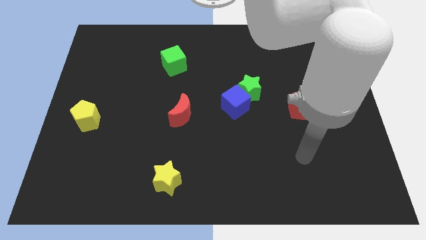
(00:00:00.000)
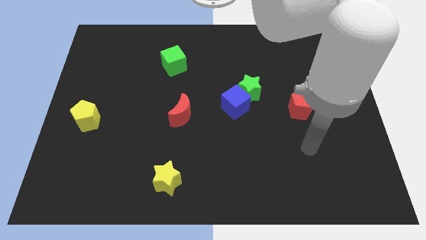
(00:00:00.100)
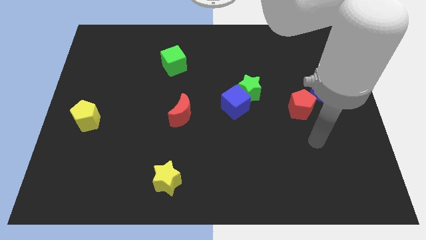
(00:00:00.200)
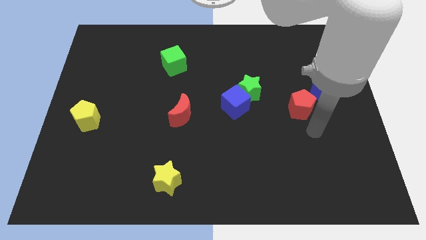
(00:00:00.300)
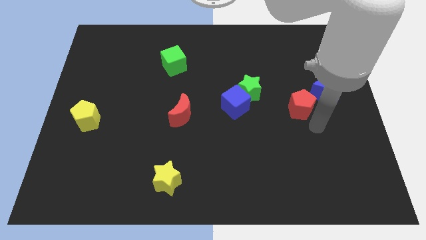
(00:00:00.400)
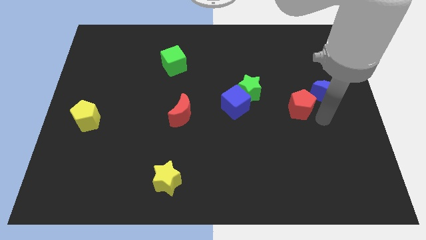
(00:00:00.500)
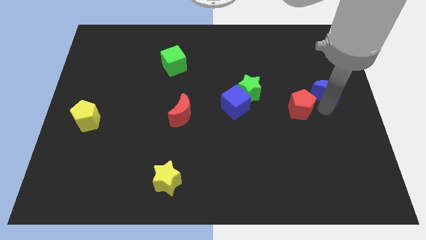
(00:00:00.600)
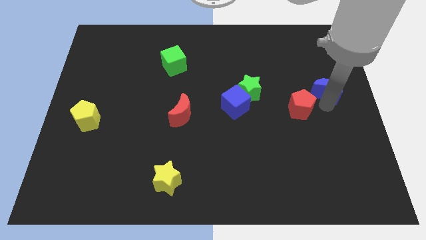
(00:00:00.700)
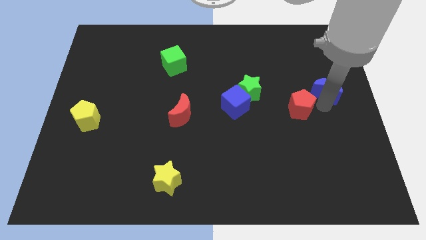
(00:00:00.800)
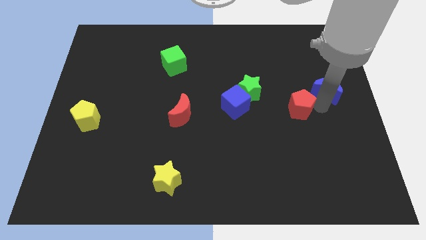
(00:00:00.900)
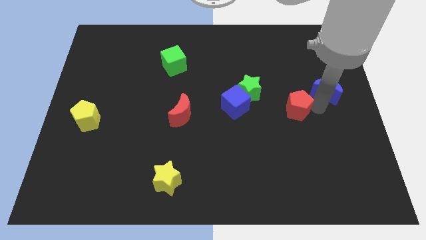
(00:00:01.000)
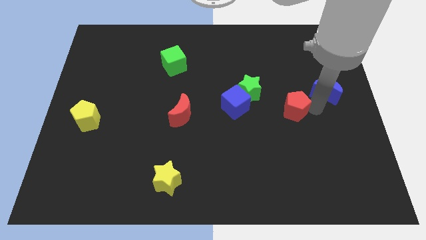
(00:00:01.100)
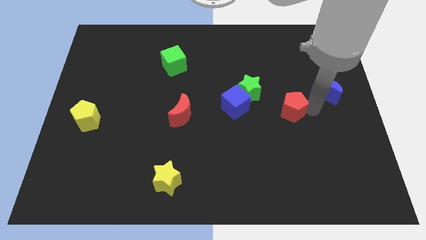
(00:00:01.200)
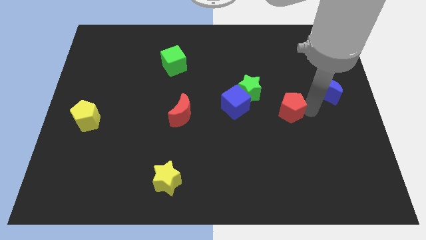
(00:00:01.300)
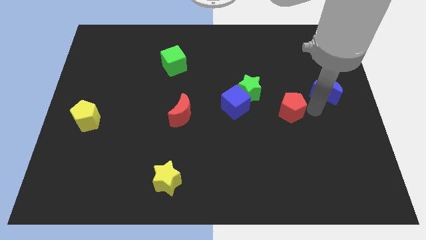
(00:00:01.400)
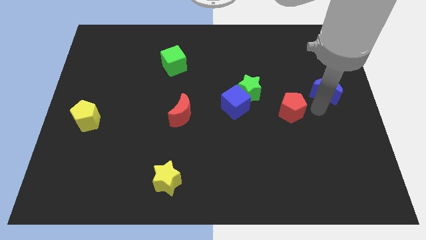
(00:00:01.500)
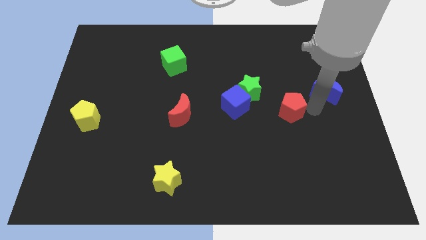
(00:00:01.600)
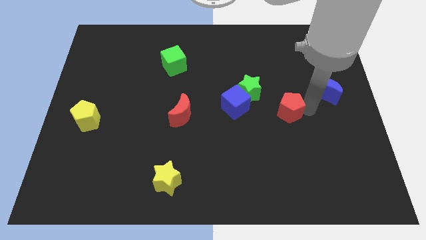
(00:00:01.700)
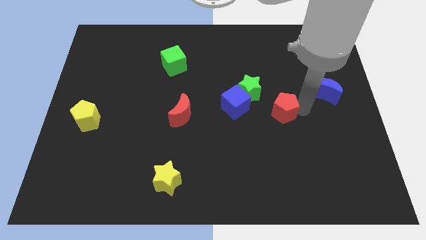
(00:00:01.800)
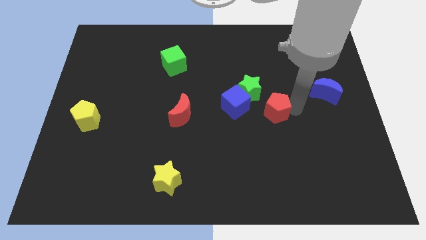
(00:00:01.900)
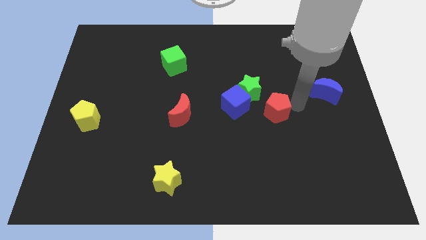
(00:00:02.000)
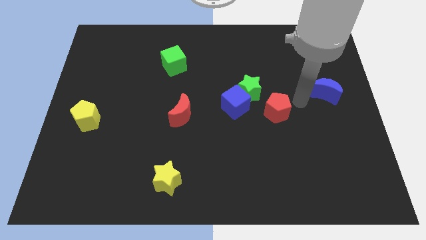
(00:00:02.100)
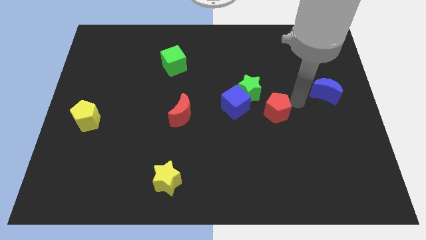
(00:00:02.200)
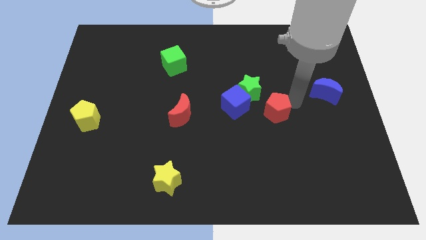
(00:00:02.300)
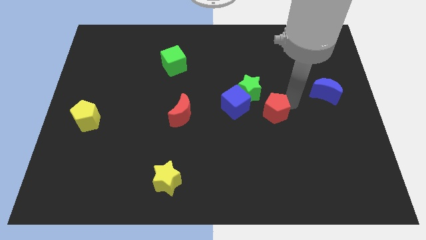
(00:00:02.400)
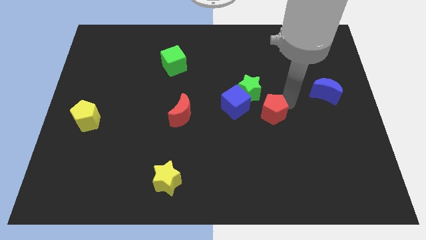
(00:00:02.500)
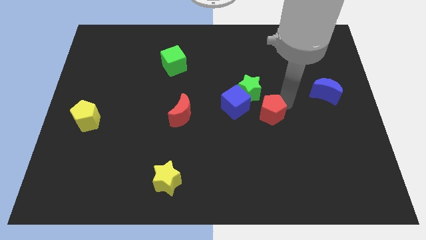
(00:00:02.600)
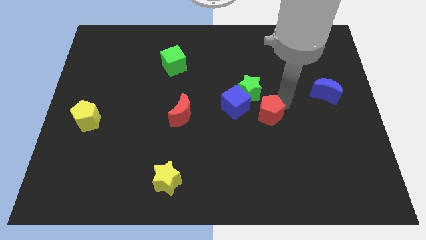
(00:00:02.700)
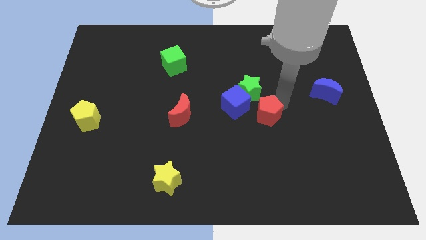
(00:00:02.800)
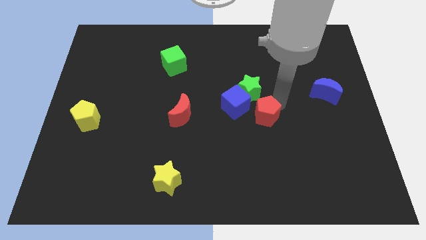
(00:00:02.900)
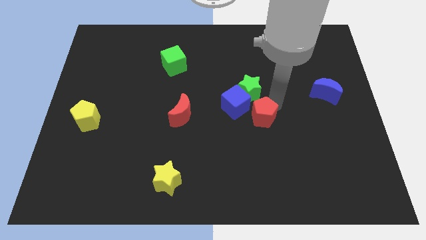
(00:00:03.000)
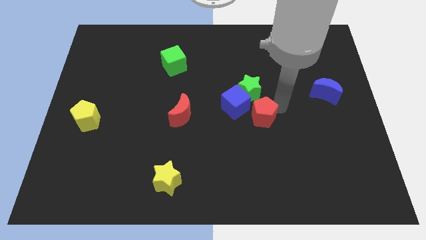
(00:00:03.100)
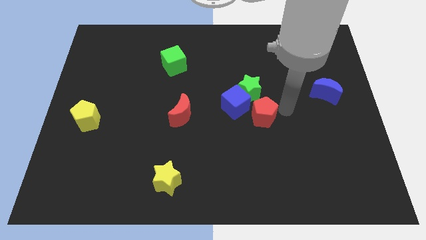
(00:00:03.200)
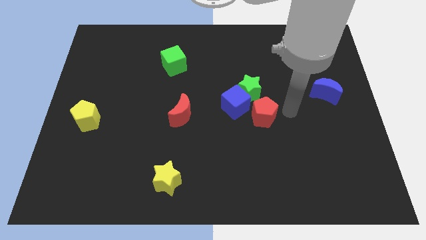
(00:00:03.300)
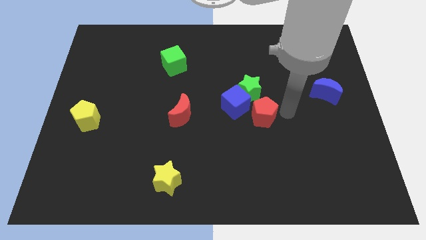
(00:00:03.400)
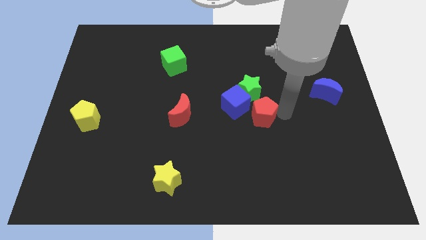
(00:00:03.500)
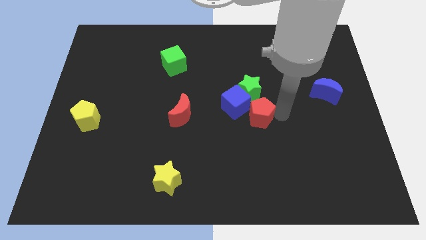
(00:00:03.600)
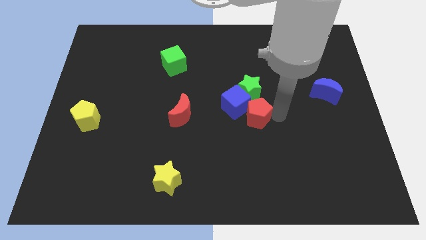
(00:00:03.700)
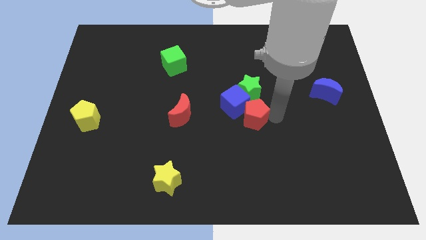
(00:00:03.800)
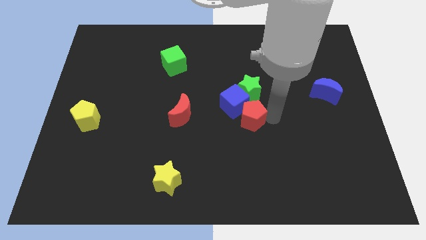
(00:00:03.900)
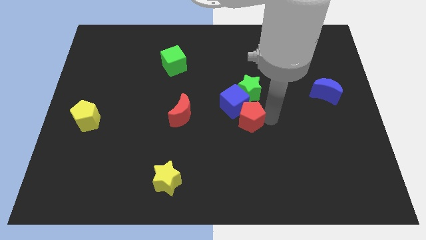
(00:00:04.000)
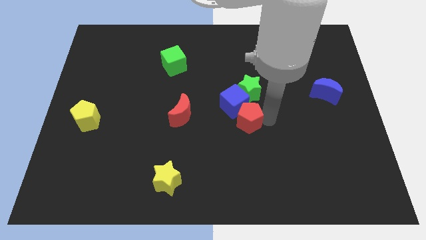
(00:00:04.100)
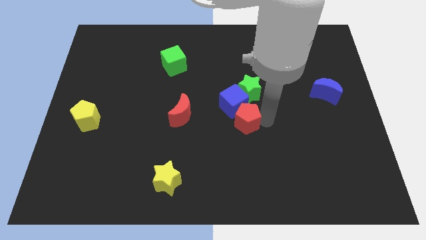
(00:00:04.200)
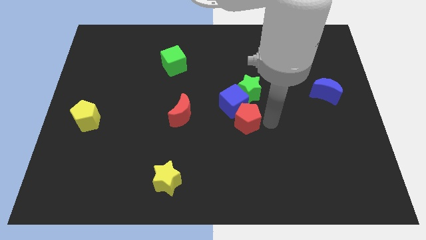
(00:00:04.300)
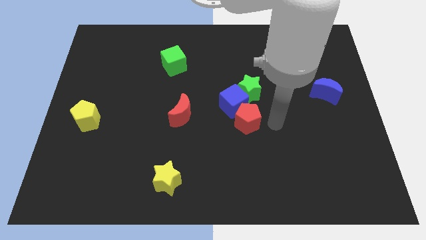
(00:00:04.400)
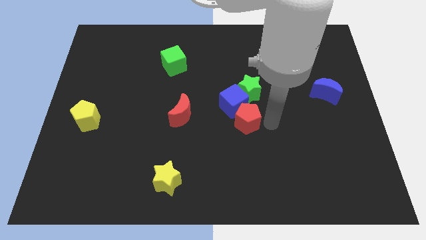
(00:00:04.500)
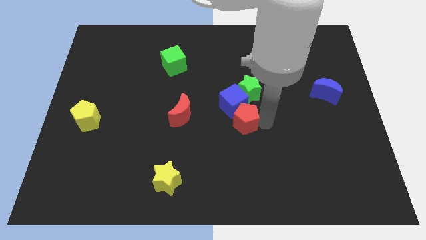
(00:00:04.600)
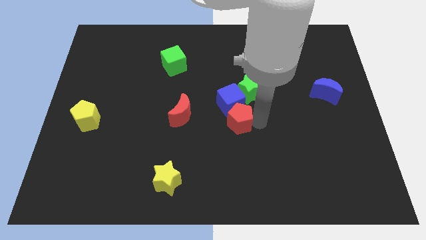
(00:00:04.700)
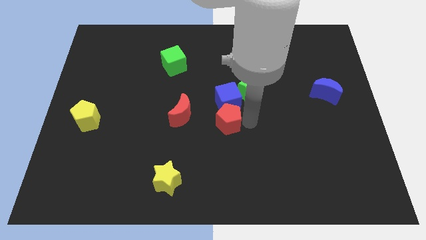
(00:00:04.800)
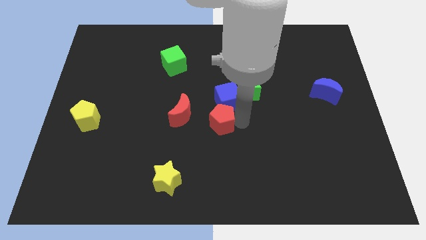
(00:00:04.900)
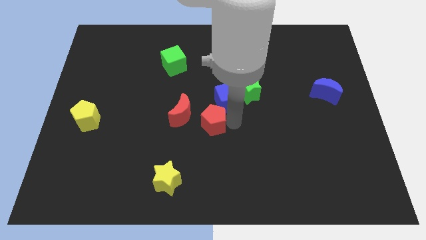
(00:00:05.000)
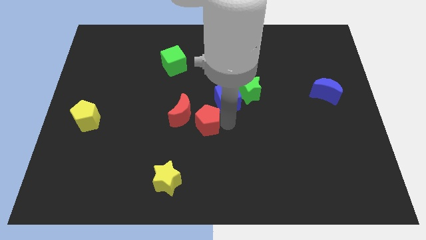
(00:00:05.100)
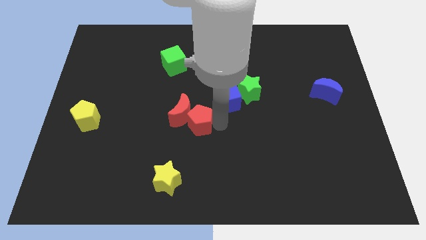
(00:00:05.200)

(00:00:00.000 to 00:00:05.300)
put the red pentagon next to the red moon

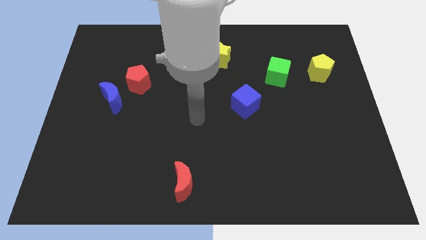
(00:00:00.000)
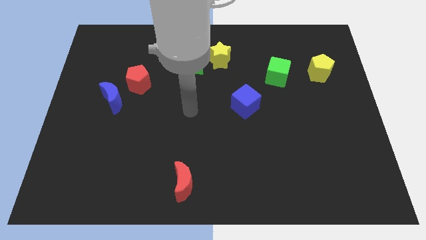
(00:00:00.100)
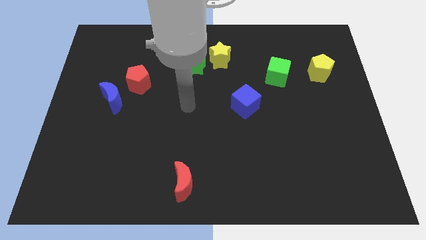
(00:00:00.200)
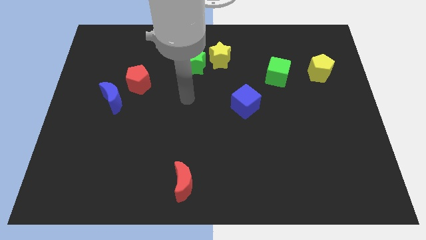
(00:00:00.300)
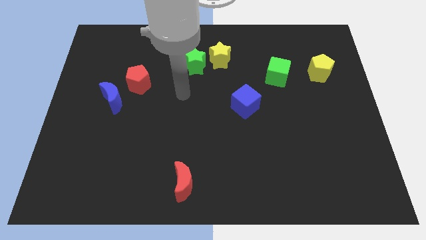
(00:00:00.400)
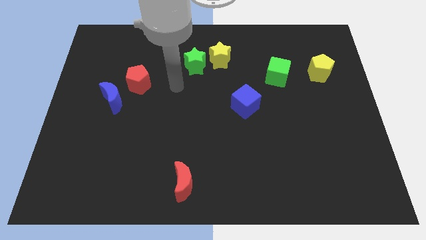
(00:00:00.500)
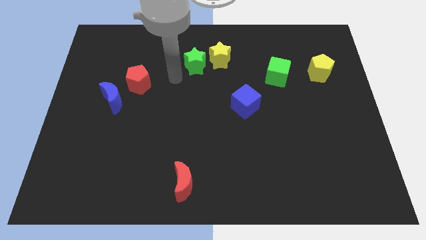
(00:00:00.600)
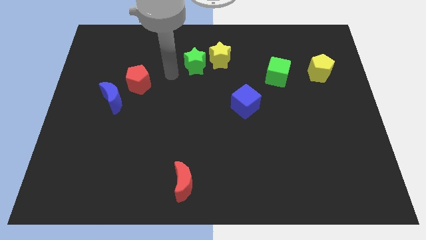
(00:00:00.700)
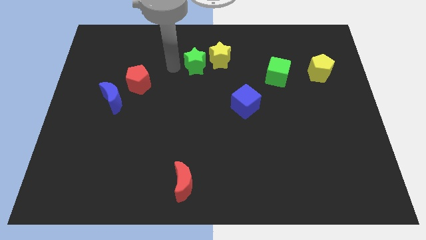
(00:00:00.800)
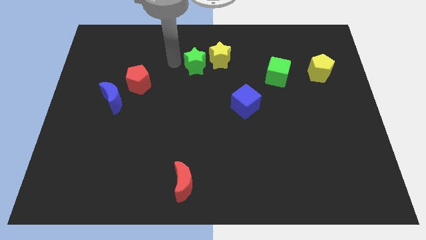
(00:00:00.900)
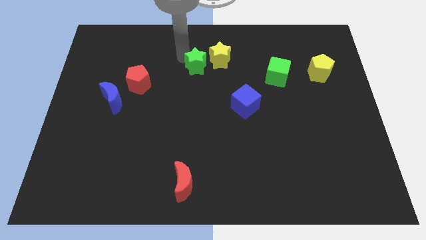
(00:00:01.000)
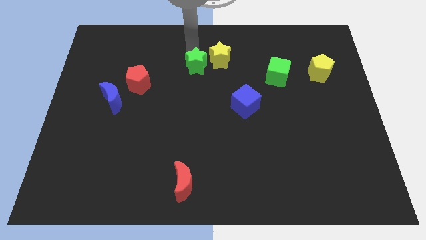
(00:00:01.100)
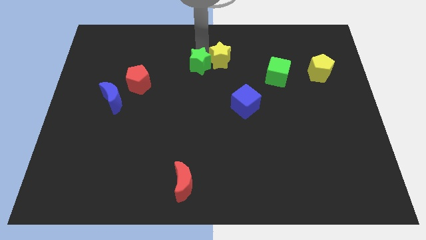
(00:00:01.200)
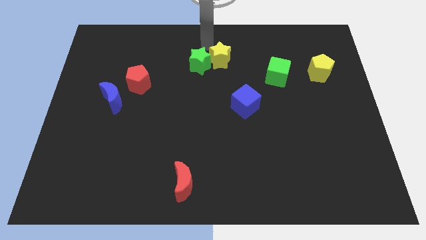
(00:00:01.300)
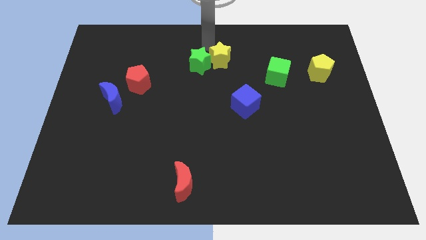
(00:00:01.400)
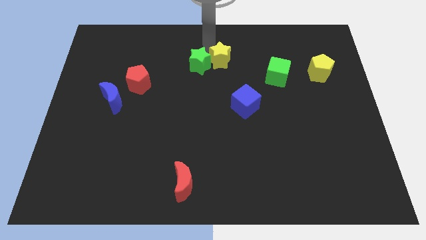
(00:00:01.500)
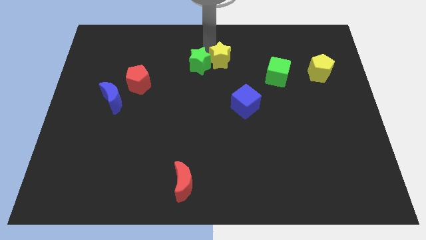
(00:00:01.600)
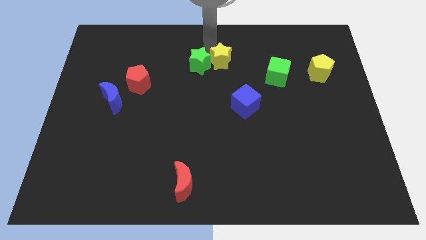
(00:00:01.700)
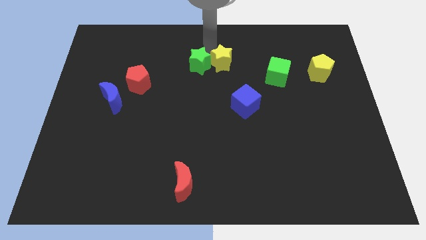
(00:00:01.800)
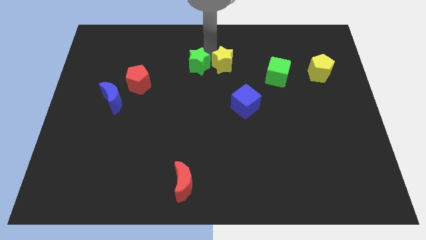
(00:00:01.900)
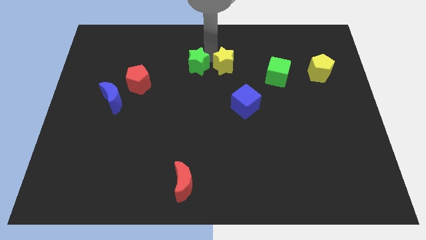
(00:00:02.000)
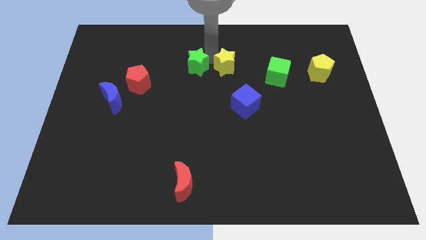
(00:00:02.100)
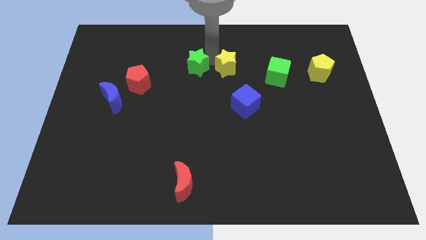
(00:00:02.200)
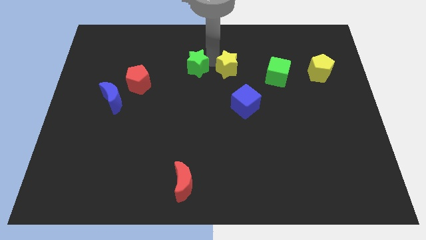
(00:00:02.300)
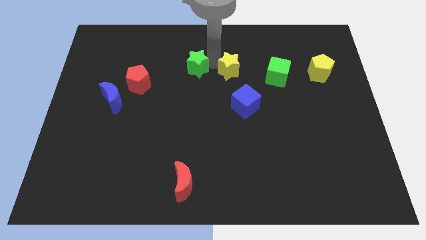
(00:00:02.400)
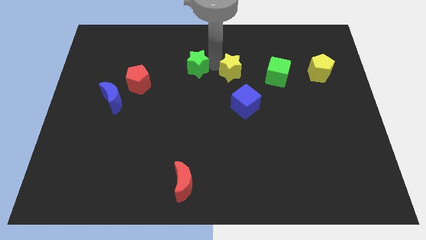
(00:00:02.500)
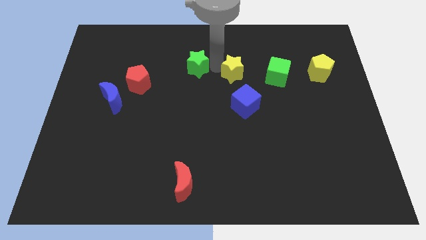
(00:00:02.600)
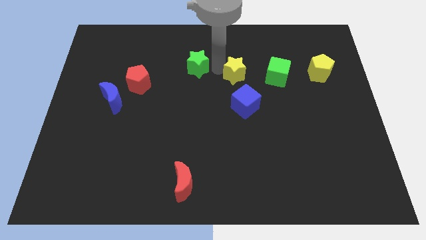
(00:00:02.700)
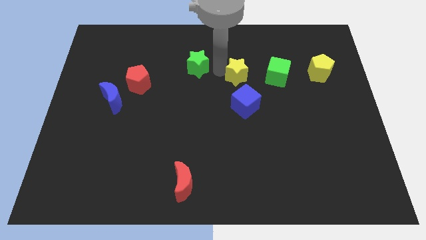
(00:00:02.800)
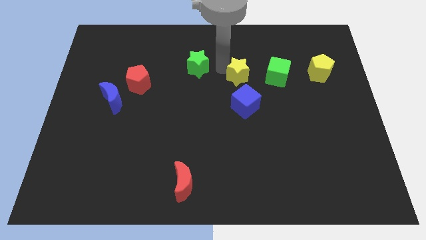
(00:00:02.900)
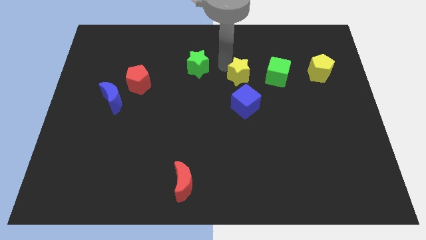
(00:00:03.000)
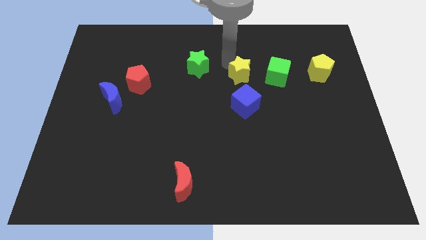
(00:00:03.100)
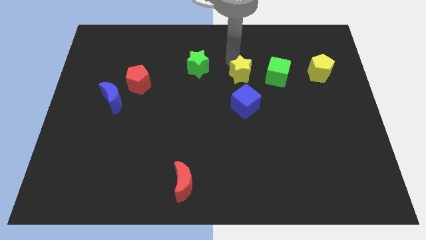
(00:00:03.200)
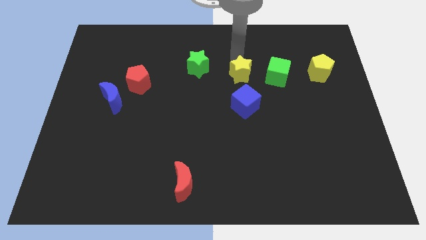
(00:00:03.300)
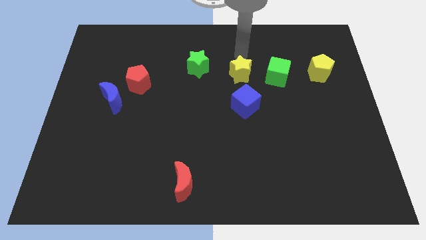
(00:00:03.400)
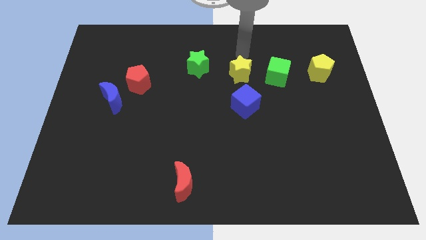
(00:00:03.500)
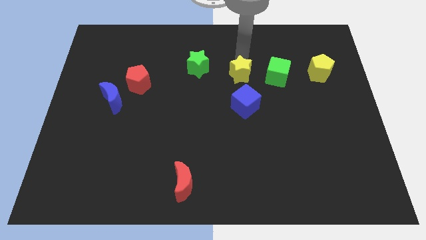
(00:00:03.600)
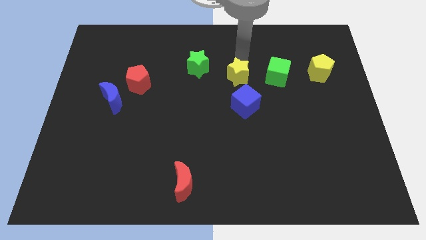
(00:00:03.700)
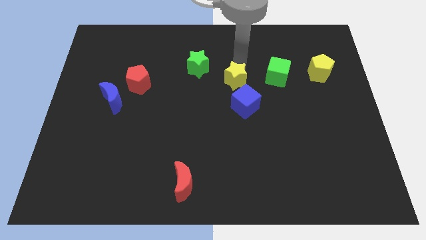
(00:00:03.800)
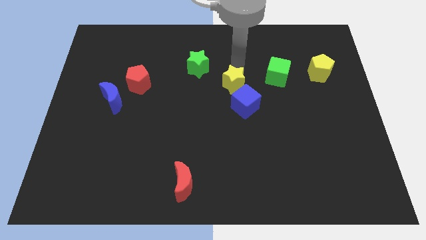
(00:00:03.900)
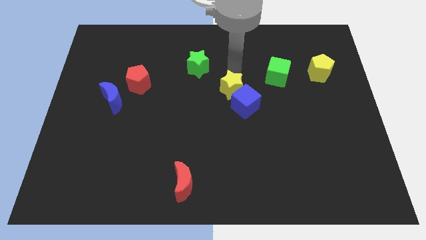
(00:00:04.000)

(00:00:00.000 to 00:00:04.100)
slide the yellow star next to the blue cube
